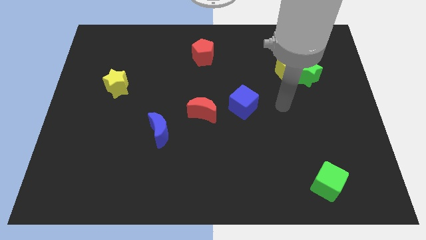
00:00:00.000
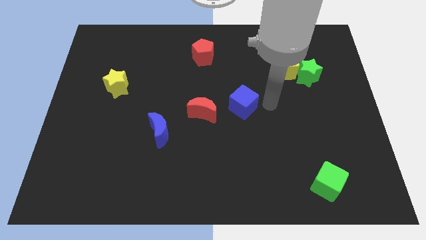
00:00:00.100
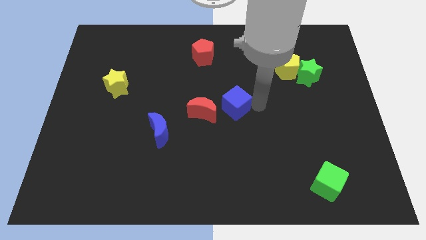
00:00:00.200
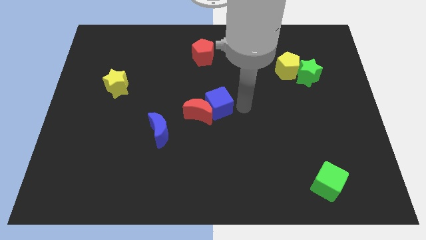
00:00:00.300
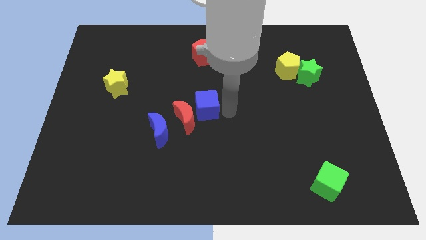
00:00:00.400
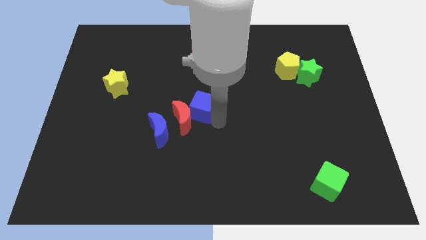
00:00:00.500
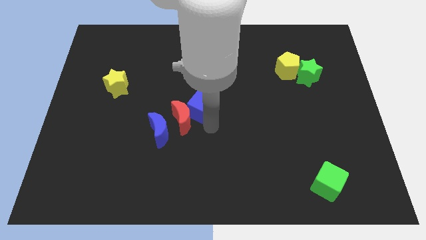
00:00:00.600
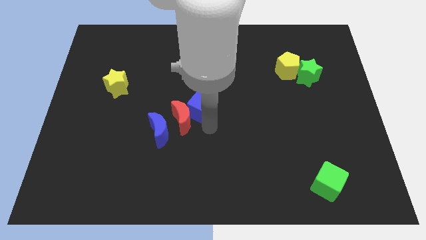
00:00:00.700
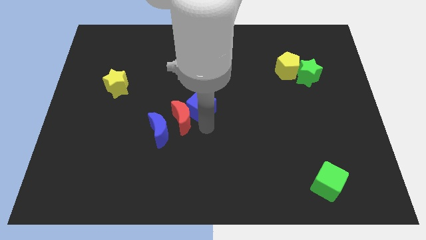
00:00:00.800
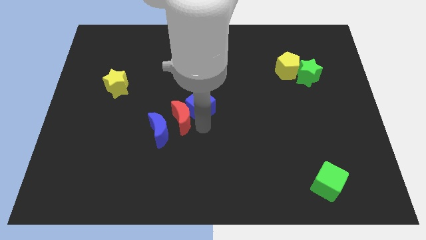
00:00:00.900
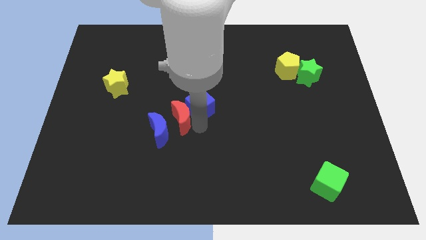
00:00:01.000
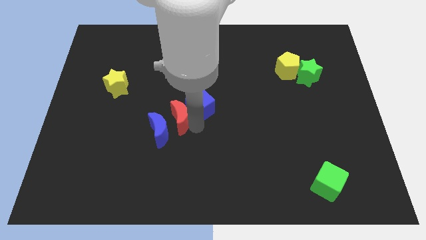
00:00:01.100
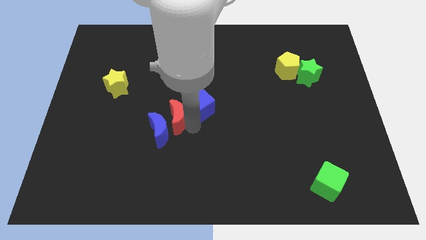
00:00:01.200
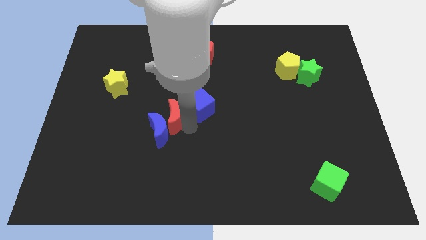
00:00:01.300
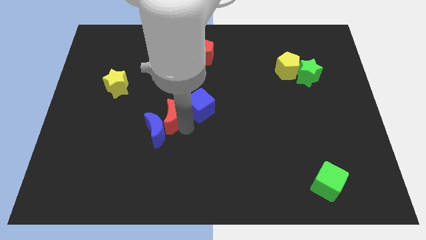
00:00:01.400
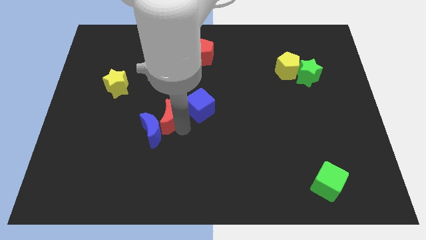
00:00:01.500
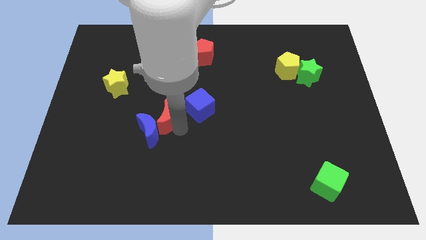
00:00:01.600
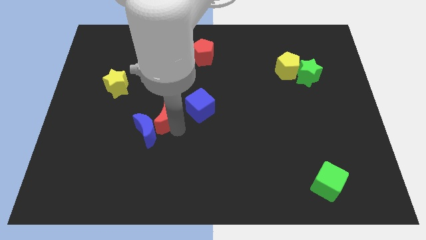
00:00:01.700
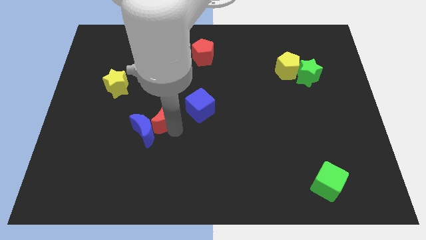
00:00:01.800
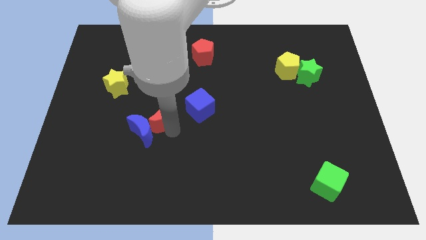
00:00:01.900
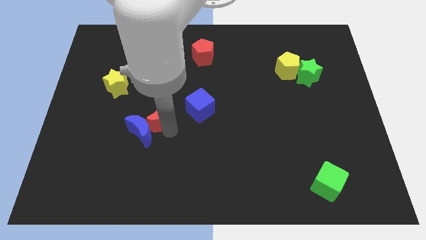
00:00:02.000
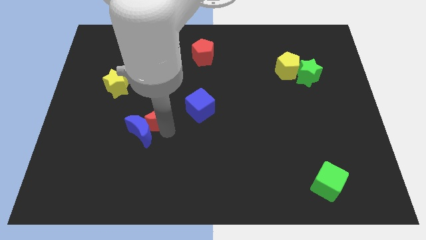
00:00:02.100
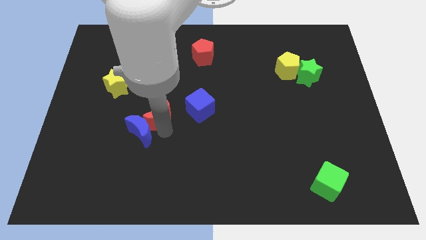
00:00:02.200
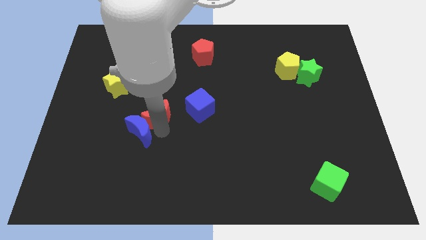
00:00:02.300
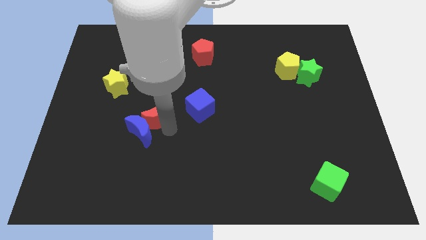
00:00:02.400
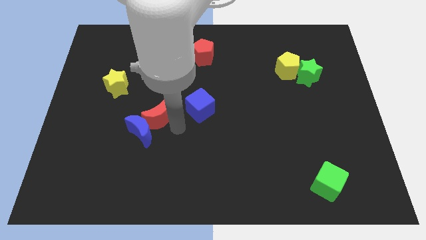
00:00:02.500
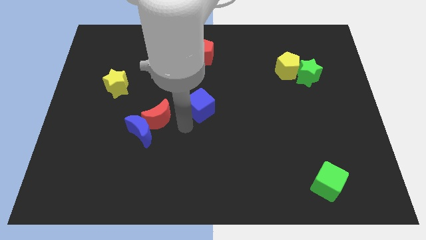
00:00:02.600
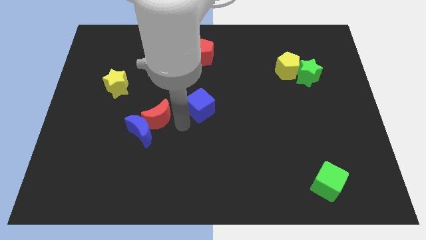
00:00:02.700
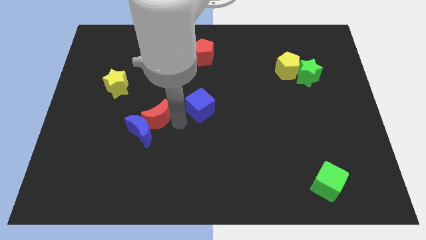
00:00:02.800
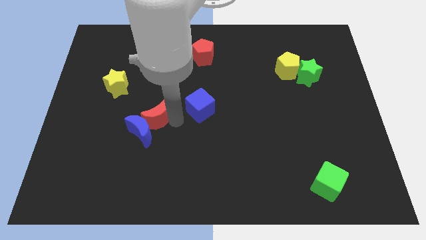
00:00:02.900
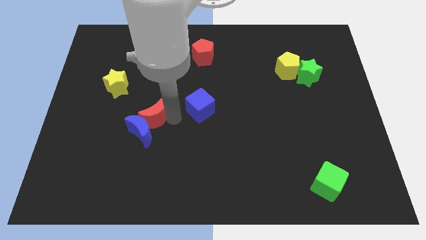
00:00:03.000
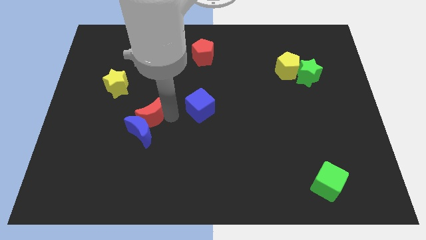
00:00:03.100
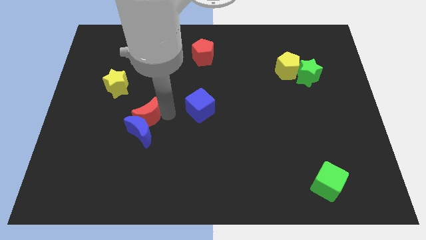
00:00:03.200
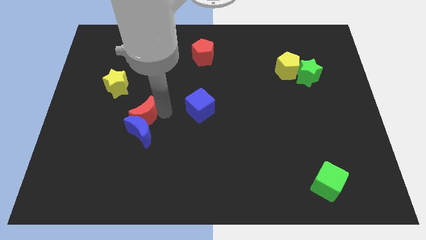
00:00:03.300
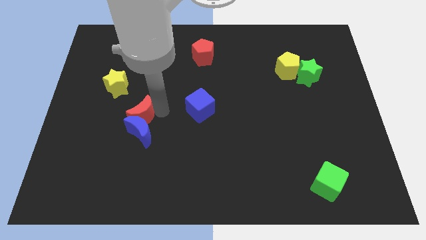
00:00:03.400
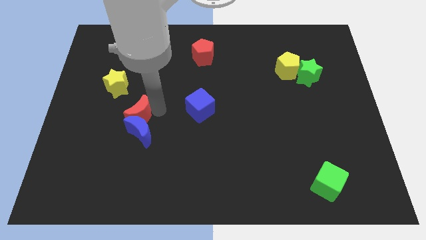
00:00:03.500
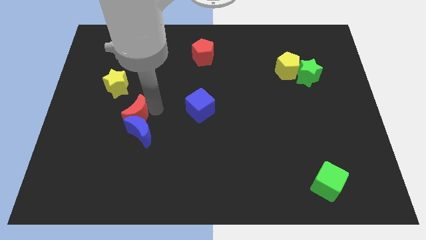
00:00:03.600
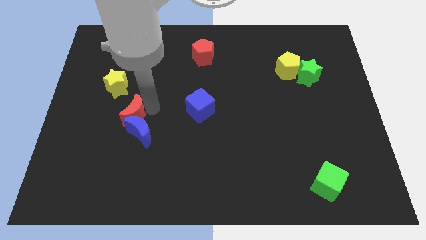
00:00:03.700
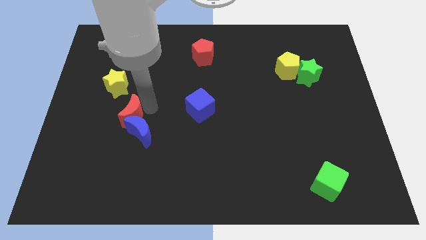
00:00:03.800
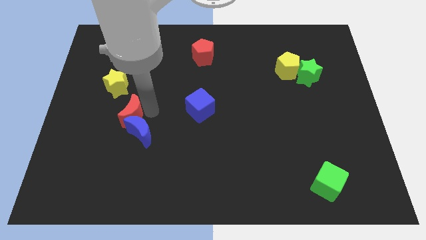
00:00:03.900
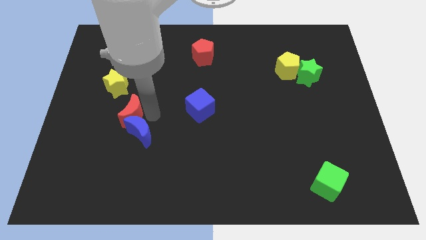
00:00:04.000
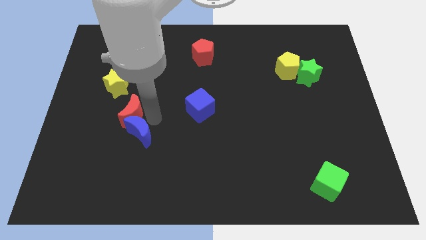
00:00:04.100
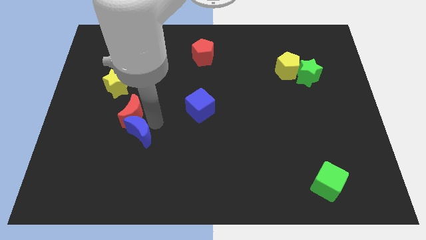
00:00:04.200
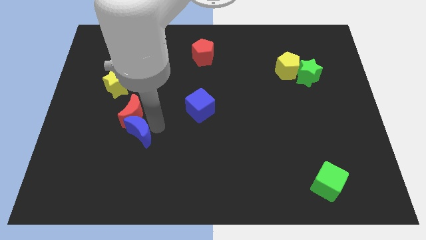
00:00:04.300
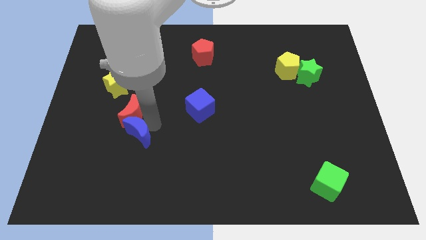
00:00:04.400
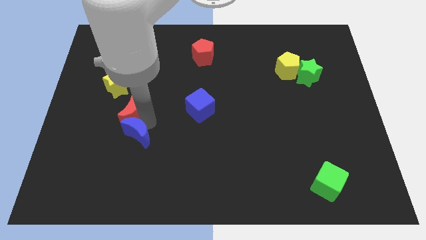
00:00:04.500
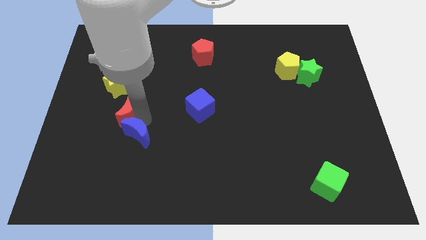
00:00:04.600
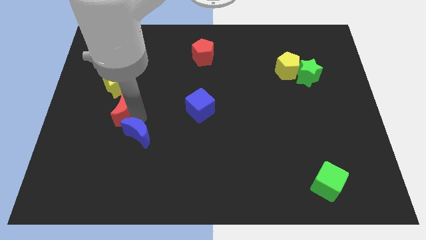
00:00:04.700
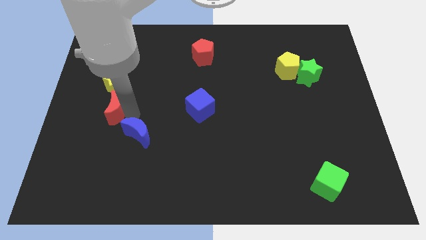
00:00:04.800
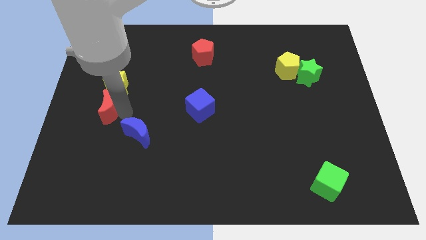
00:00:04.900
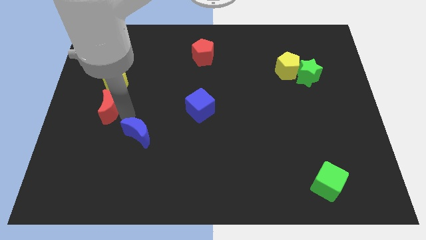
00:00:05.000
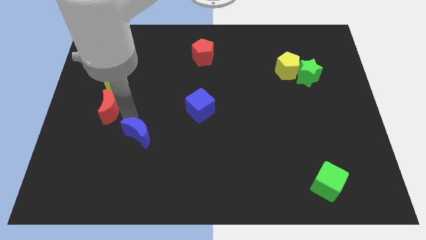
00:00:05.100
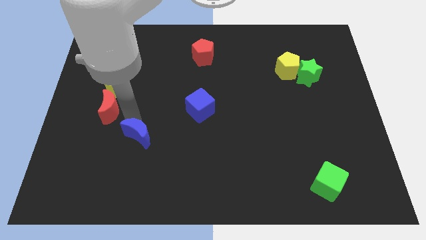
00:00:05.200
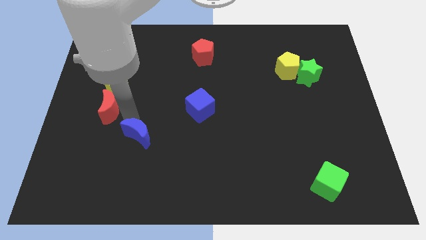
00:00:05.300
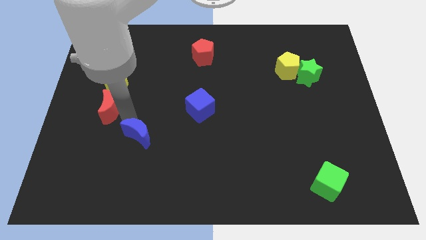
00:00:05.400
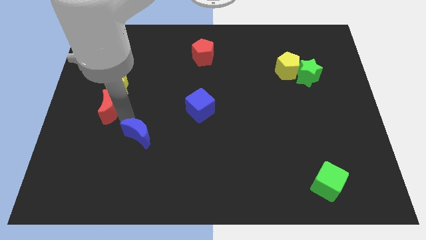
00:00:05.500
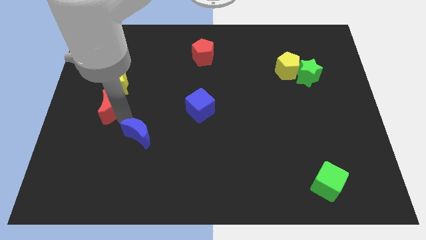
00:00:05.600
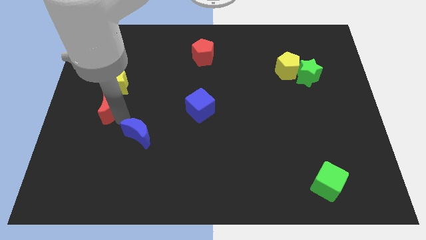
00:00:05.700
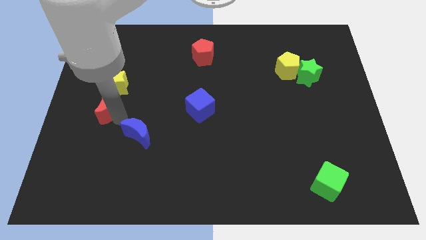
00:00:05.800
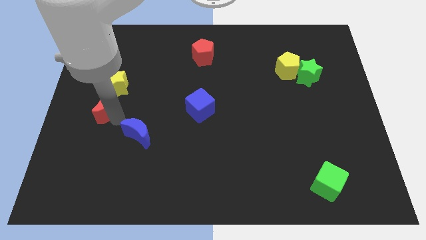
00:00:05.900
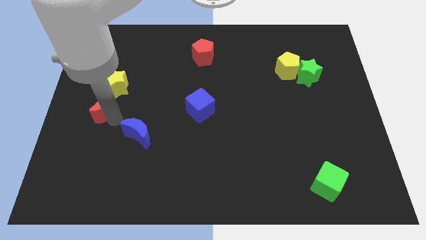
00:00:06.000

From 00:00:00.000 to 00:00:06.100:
move the red moon to the center left

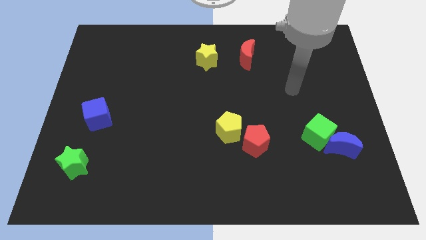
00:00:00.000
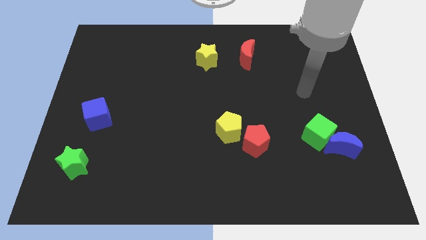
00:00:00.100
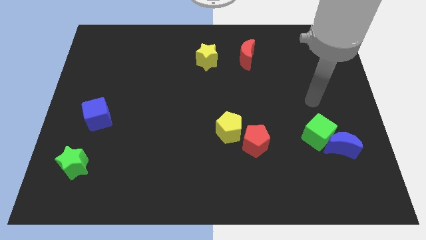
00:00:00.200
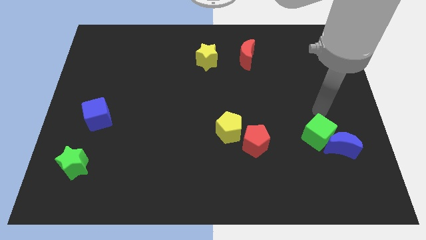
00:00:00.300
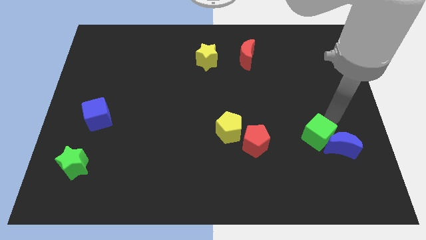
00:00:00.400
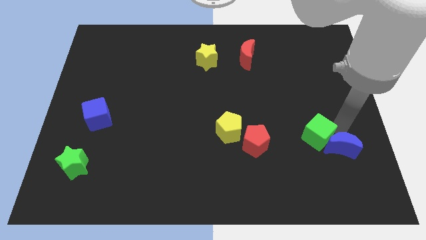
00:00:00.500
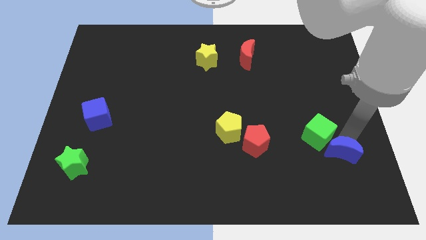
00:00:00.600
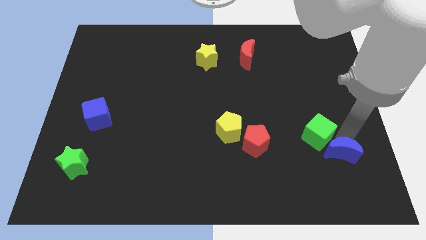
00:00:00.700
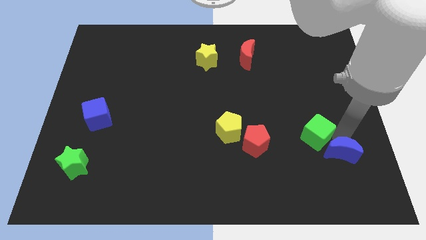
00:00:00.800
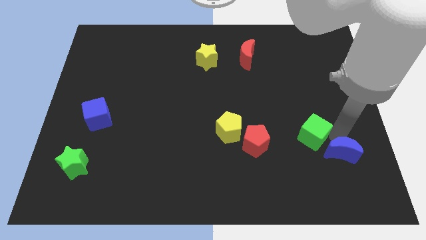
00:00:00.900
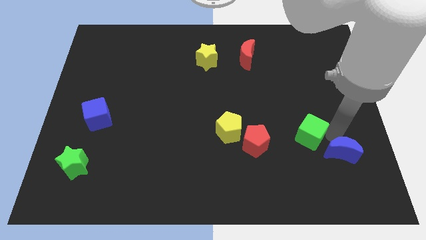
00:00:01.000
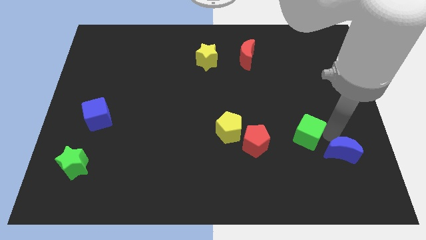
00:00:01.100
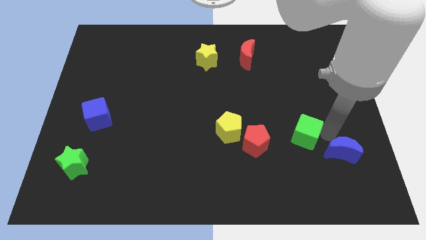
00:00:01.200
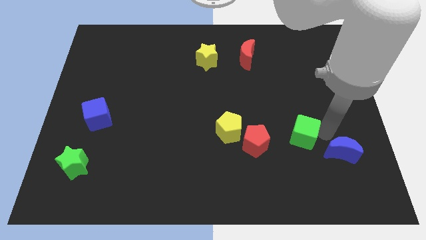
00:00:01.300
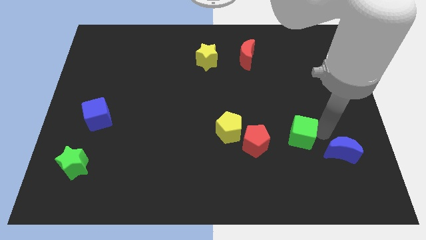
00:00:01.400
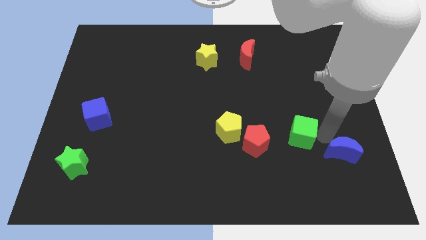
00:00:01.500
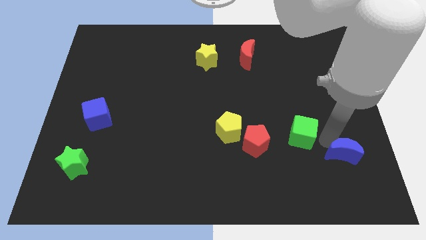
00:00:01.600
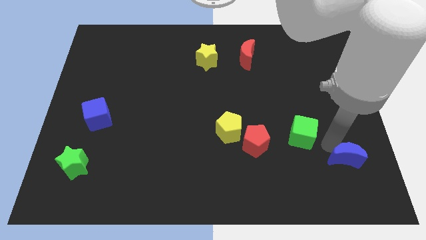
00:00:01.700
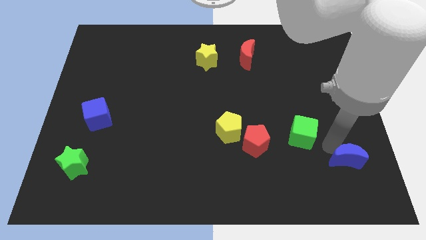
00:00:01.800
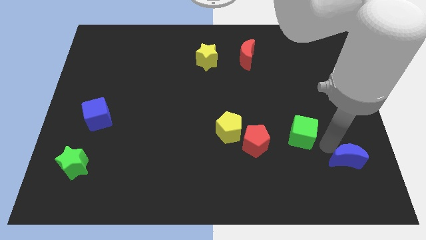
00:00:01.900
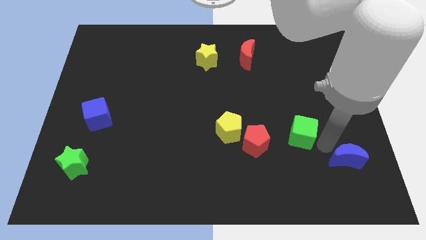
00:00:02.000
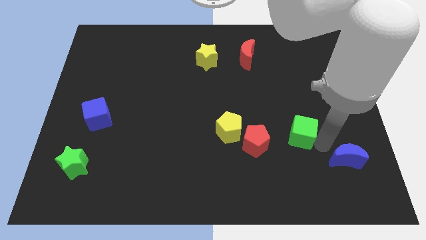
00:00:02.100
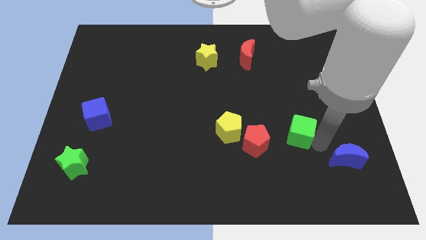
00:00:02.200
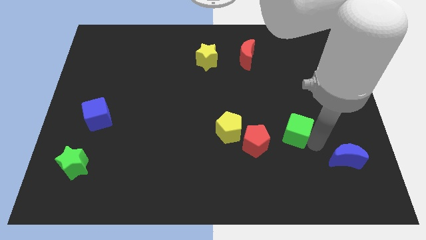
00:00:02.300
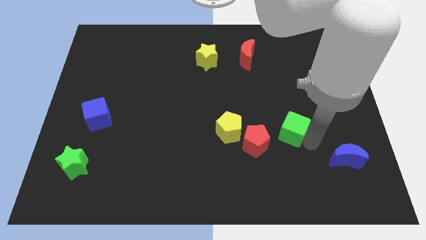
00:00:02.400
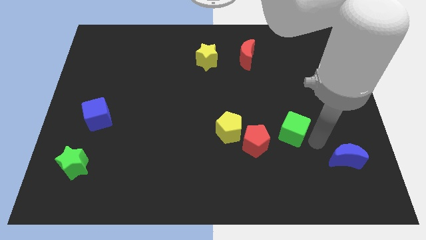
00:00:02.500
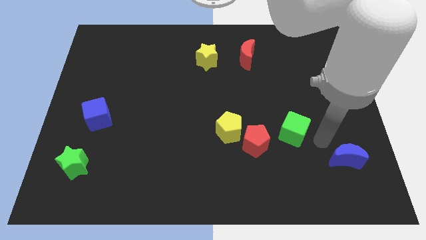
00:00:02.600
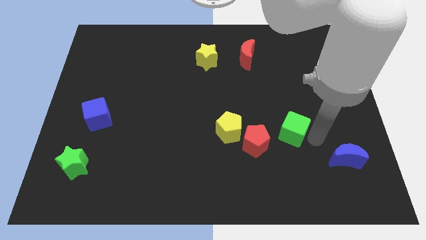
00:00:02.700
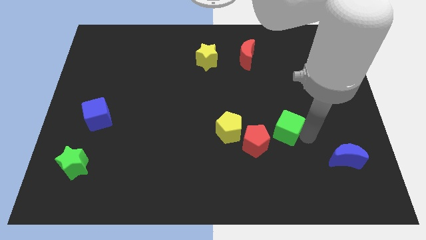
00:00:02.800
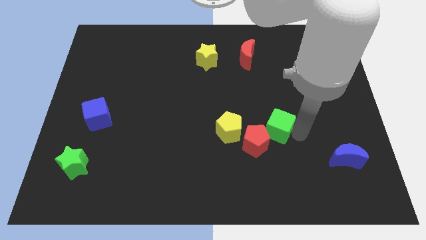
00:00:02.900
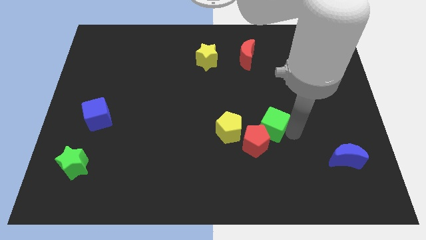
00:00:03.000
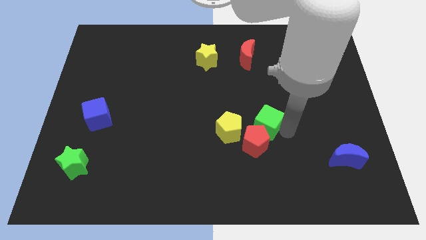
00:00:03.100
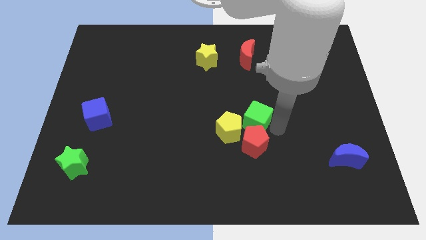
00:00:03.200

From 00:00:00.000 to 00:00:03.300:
put the green cube to the center
